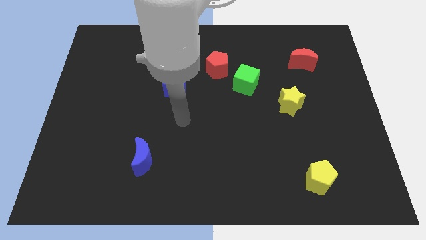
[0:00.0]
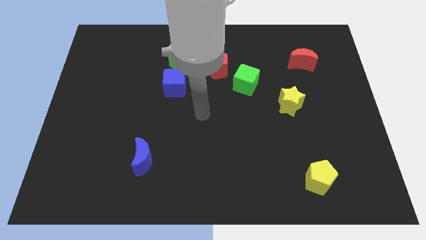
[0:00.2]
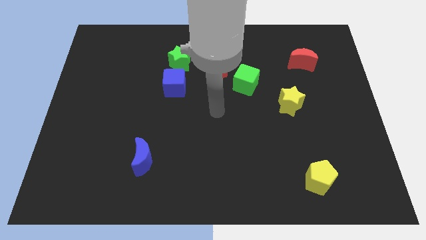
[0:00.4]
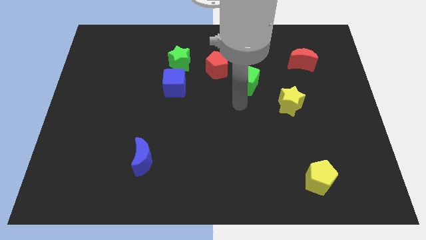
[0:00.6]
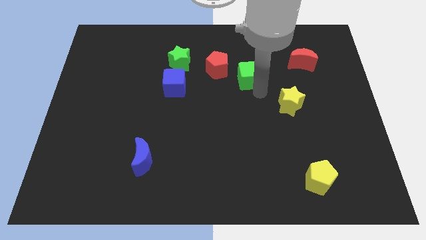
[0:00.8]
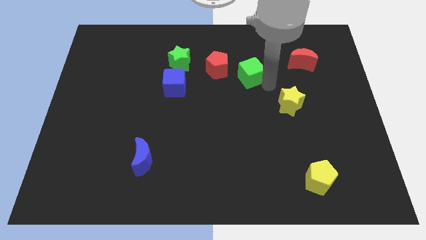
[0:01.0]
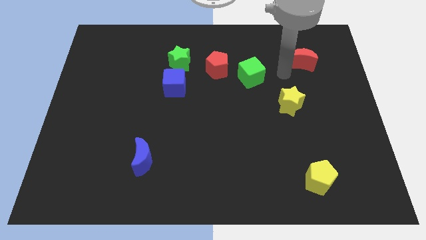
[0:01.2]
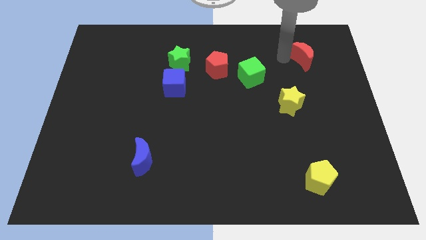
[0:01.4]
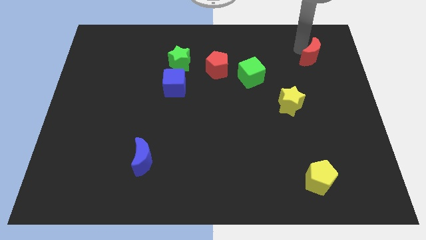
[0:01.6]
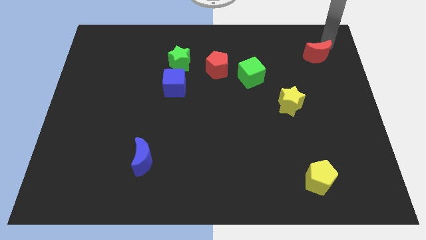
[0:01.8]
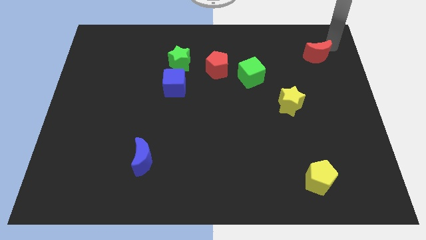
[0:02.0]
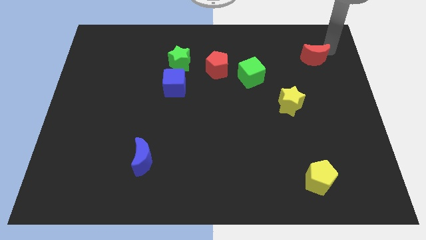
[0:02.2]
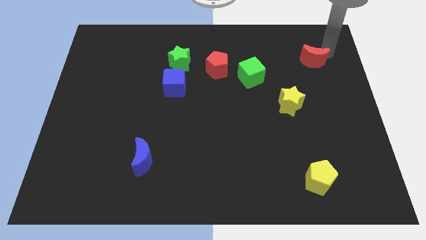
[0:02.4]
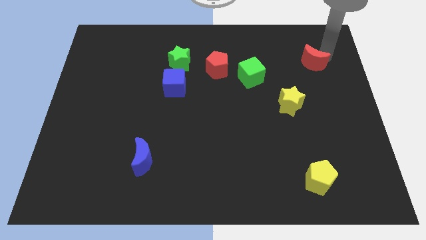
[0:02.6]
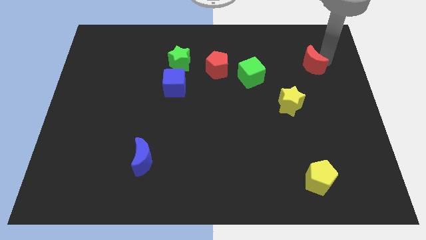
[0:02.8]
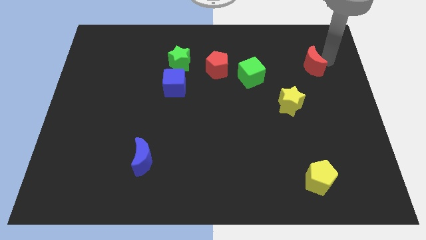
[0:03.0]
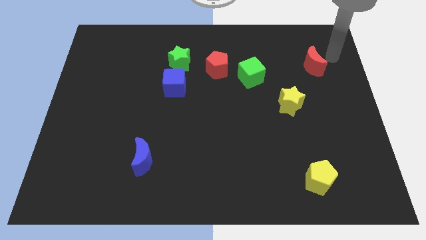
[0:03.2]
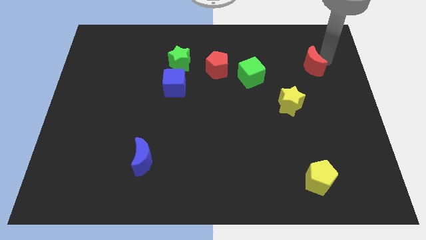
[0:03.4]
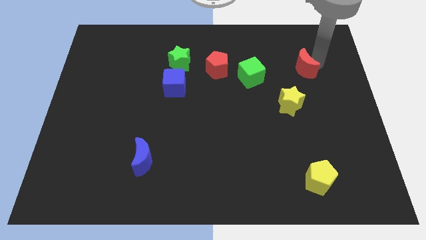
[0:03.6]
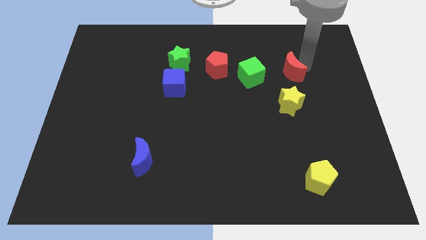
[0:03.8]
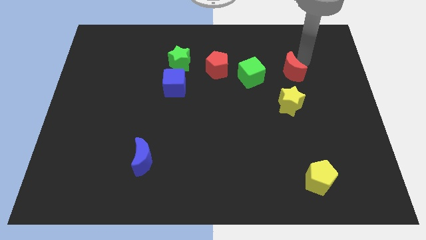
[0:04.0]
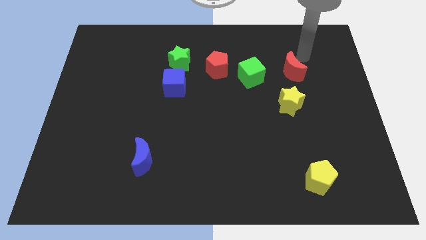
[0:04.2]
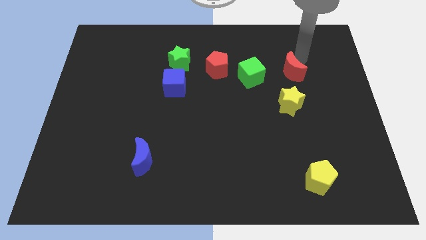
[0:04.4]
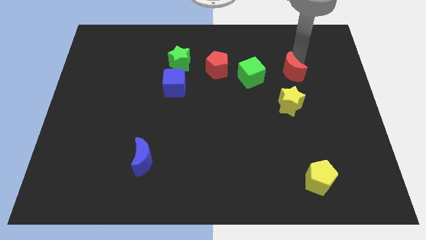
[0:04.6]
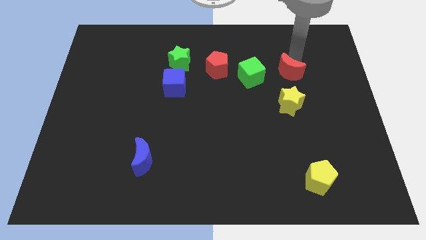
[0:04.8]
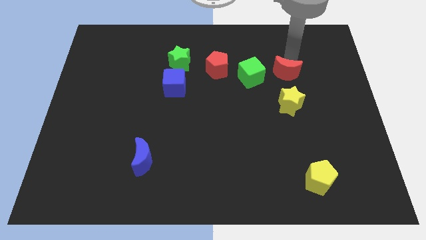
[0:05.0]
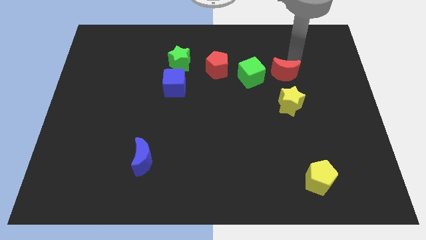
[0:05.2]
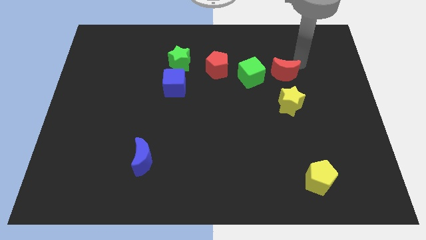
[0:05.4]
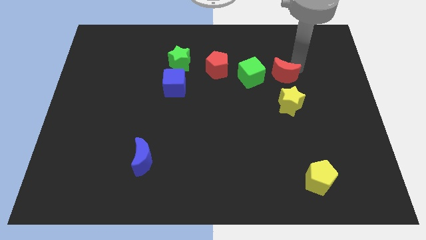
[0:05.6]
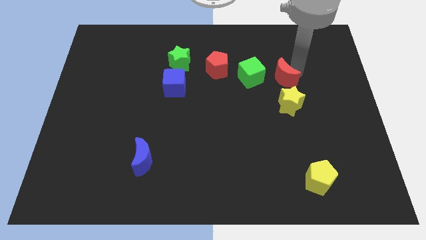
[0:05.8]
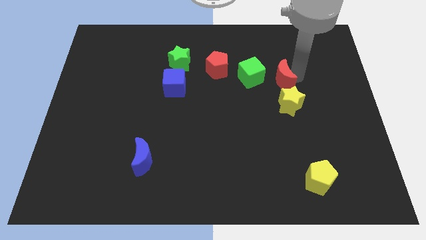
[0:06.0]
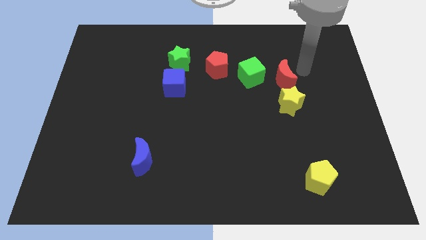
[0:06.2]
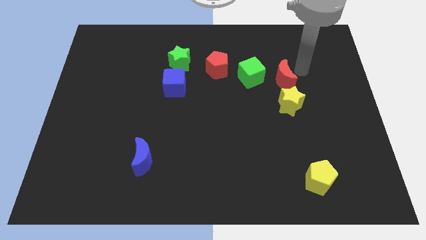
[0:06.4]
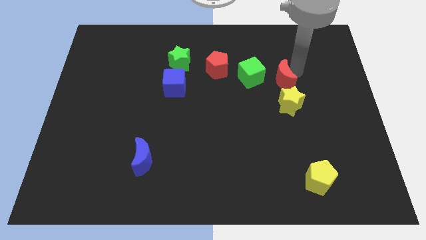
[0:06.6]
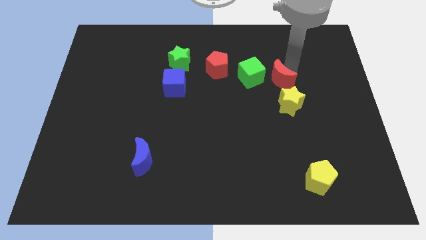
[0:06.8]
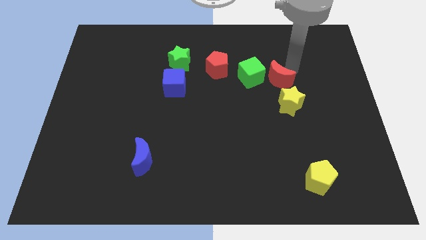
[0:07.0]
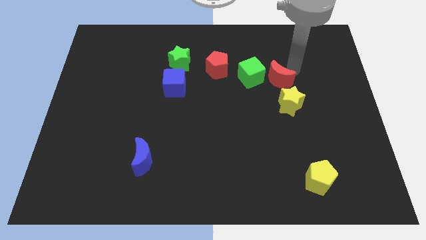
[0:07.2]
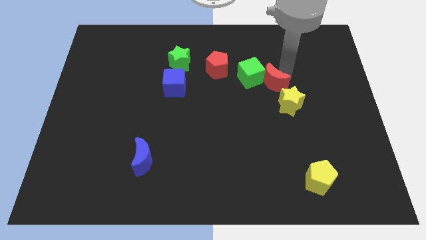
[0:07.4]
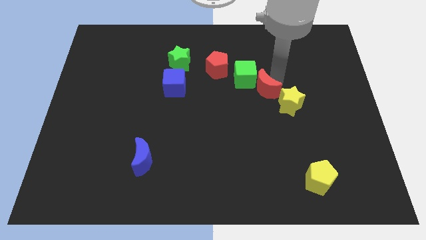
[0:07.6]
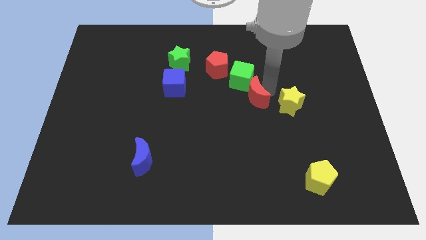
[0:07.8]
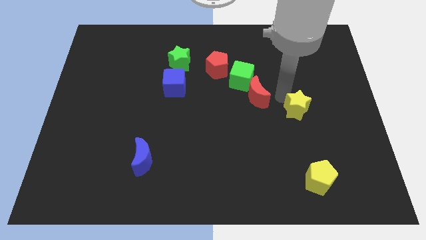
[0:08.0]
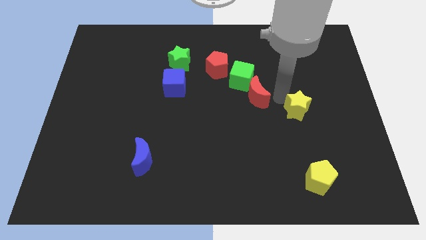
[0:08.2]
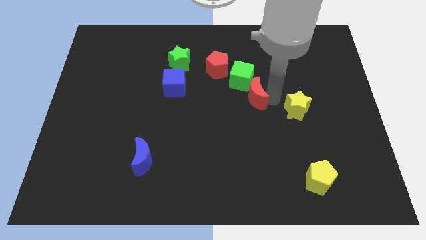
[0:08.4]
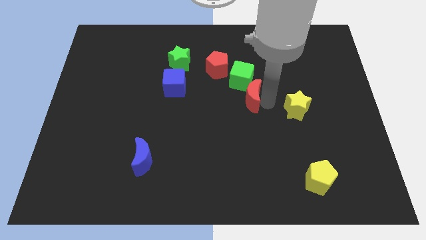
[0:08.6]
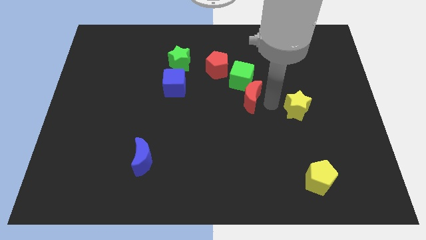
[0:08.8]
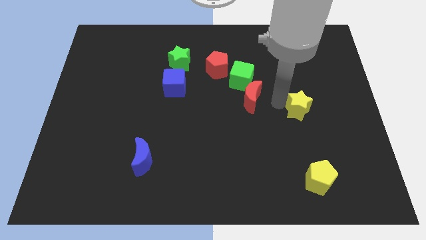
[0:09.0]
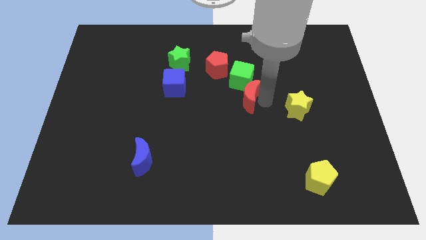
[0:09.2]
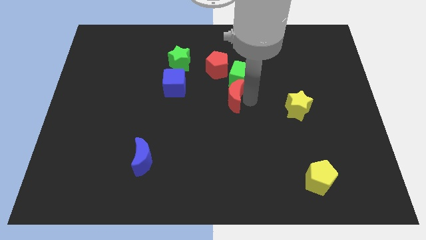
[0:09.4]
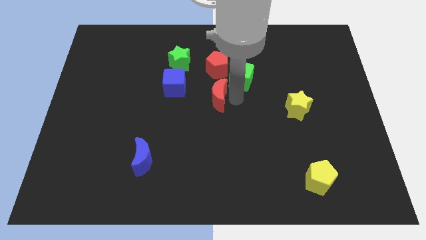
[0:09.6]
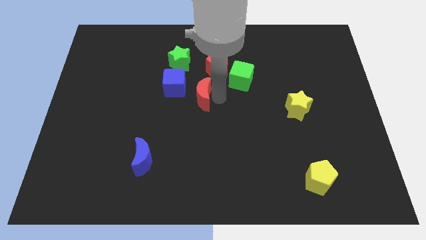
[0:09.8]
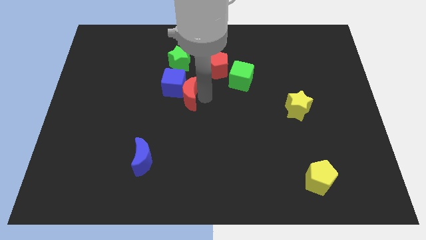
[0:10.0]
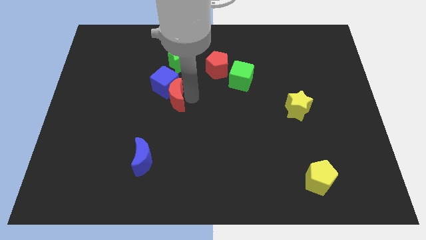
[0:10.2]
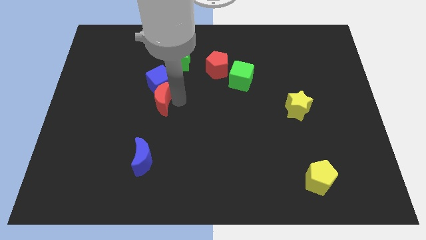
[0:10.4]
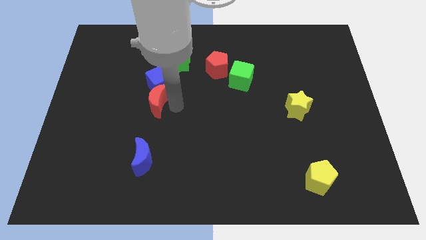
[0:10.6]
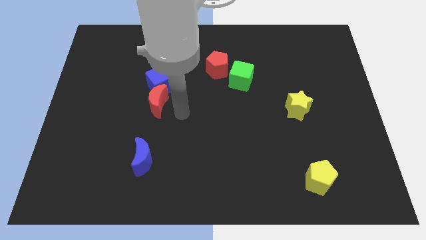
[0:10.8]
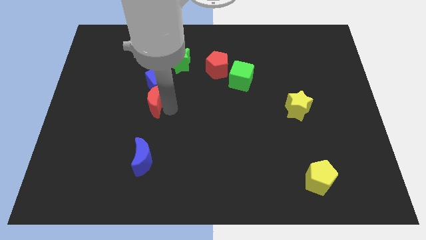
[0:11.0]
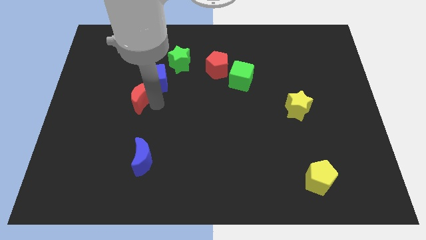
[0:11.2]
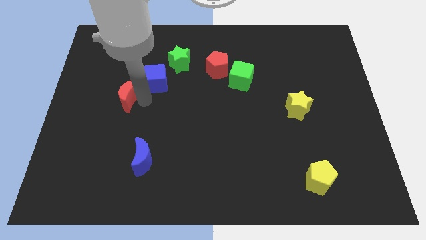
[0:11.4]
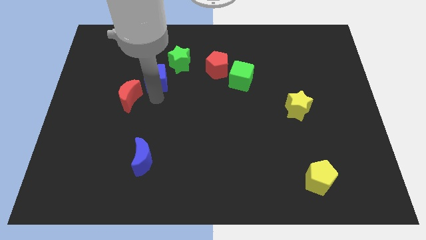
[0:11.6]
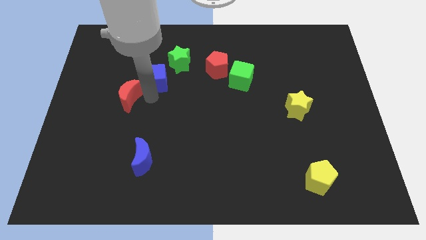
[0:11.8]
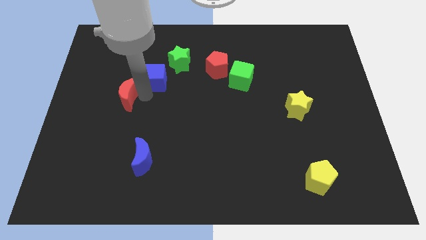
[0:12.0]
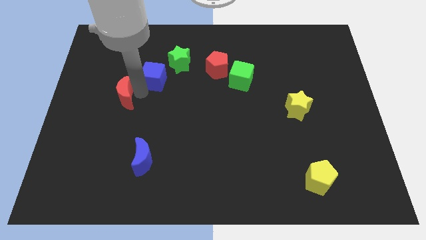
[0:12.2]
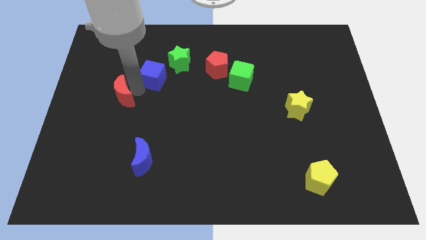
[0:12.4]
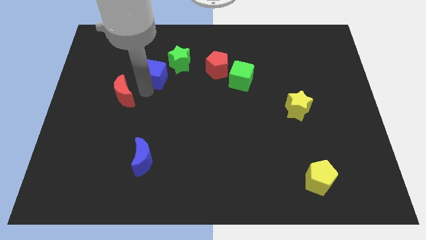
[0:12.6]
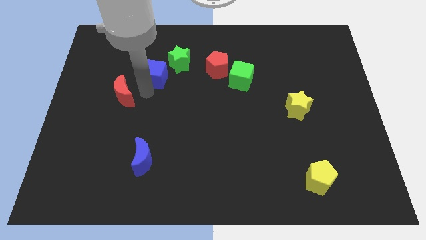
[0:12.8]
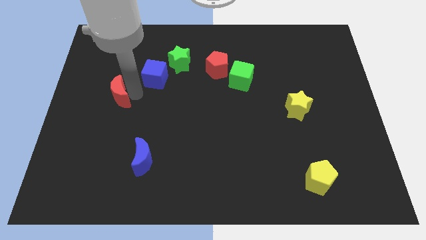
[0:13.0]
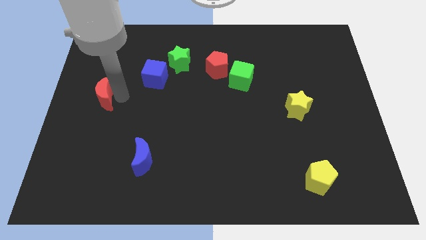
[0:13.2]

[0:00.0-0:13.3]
slide the red moon to the left side
